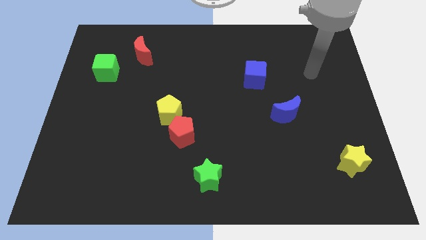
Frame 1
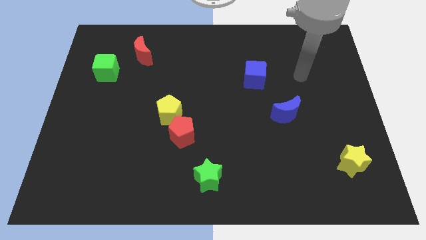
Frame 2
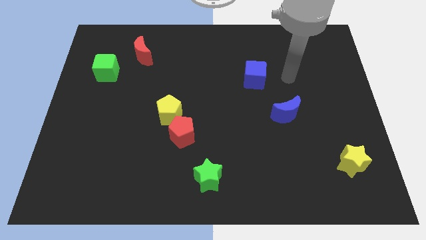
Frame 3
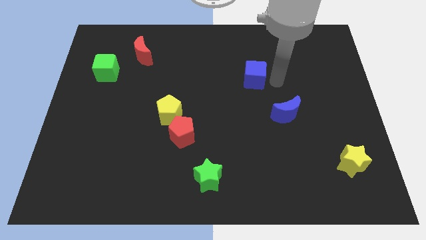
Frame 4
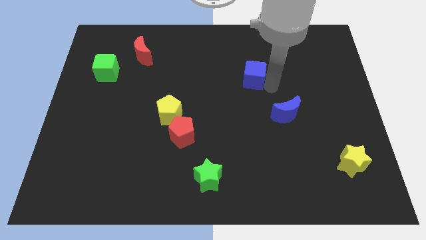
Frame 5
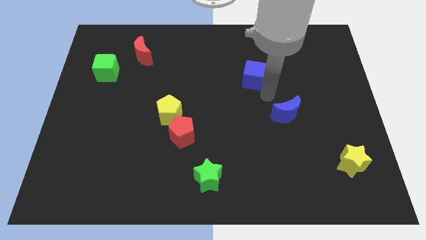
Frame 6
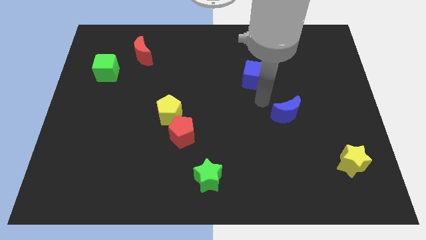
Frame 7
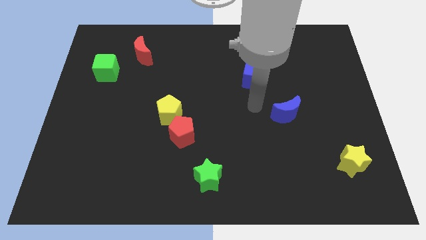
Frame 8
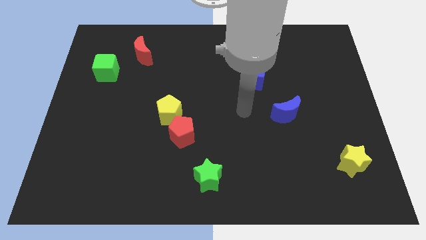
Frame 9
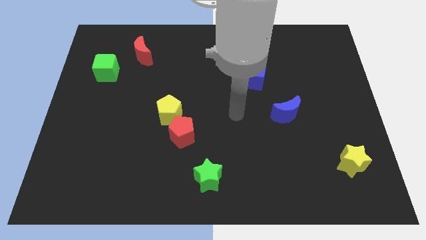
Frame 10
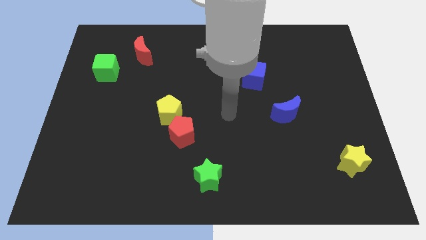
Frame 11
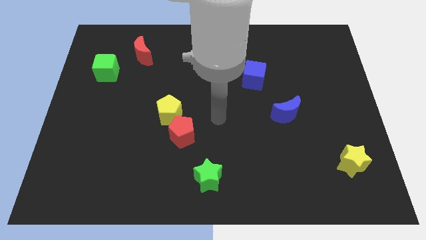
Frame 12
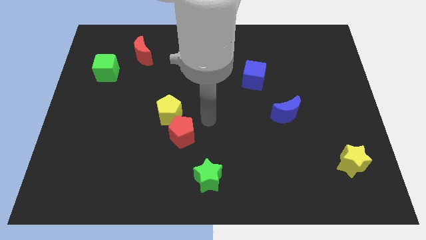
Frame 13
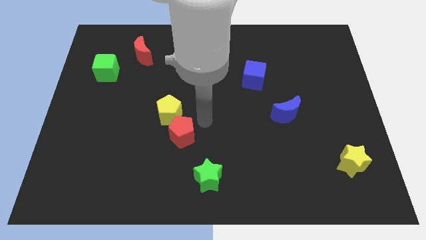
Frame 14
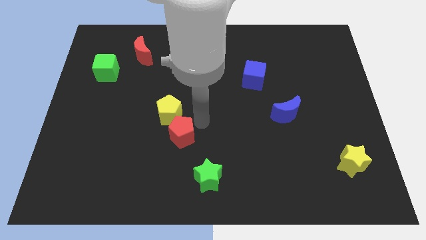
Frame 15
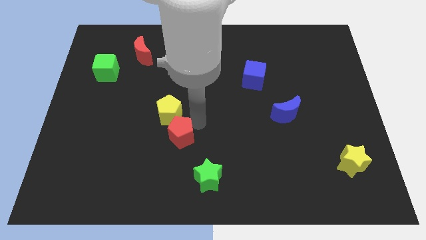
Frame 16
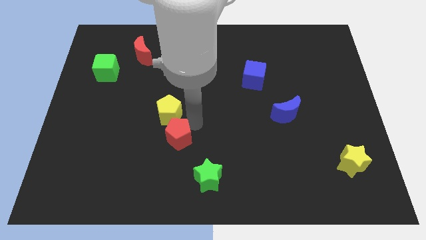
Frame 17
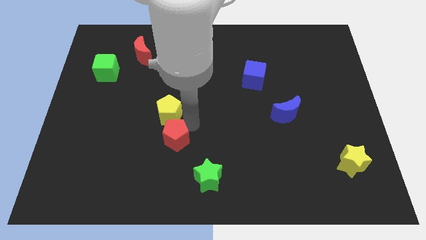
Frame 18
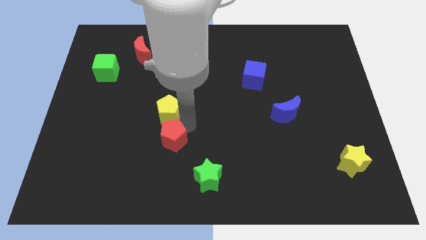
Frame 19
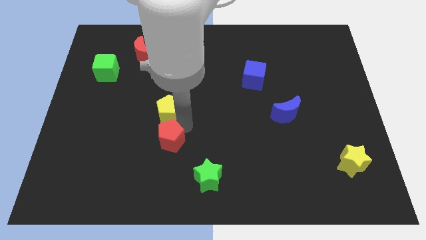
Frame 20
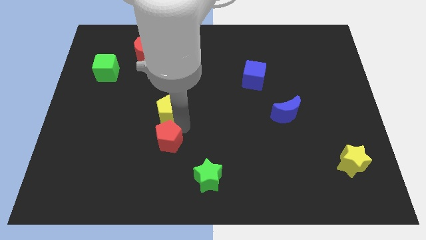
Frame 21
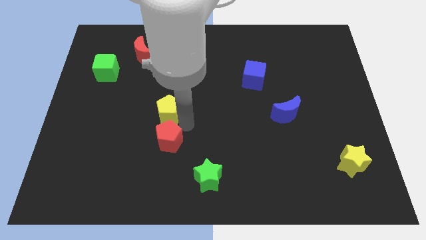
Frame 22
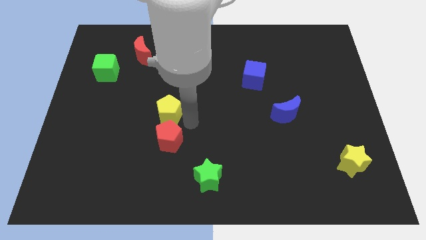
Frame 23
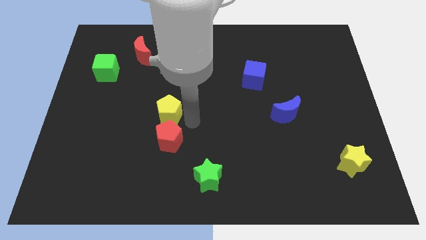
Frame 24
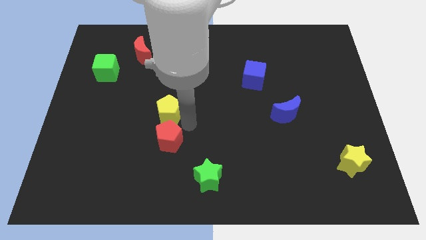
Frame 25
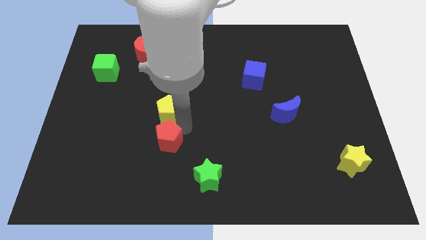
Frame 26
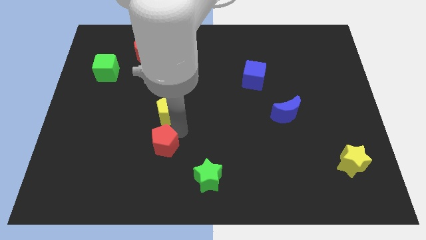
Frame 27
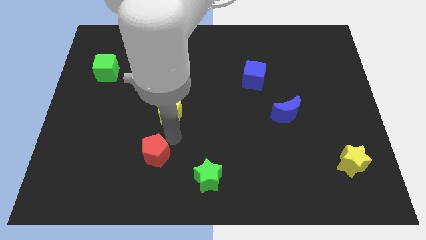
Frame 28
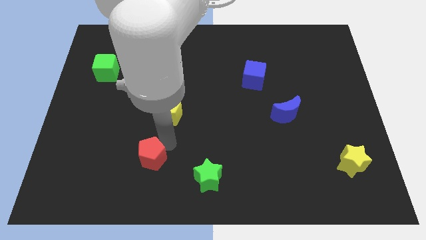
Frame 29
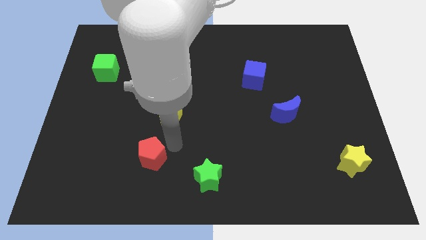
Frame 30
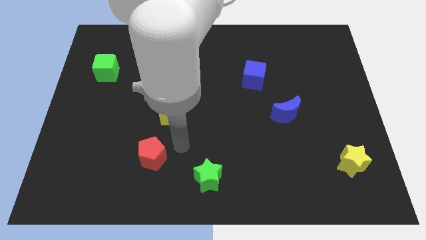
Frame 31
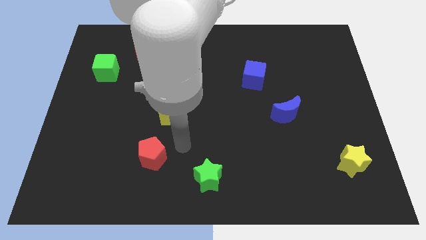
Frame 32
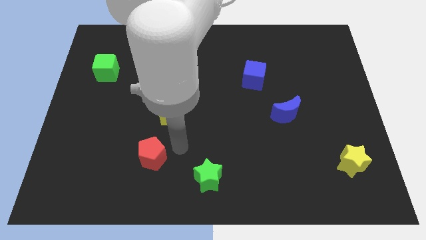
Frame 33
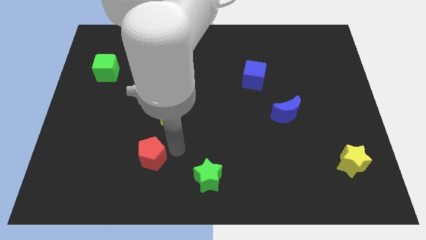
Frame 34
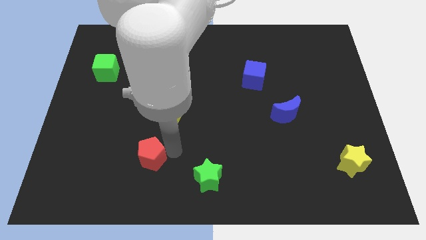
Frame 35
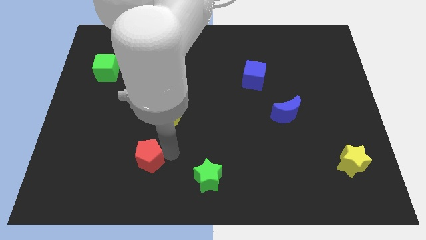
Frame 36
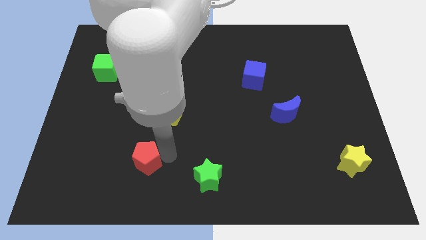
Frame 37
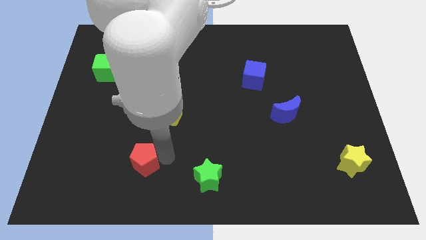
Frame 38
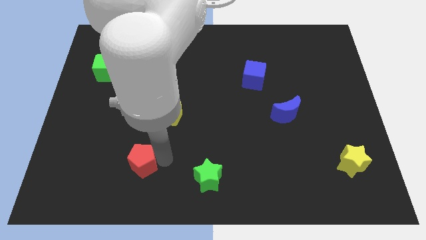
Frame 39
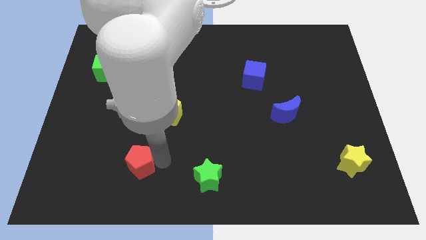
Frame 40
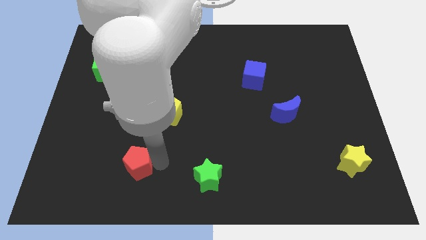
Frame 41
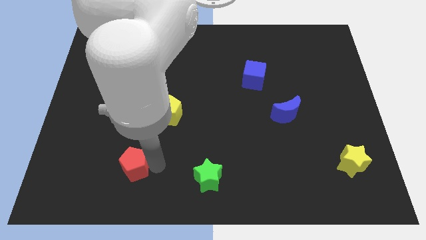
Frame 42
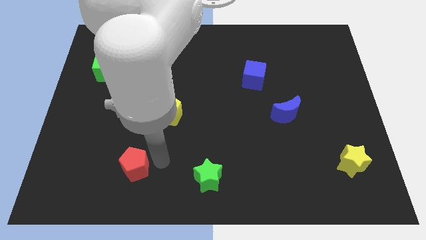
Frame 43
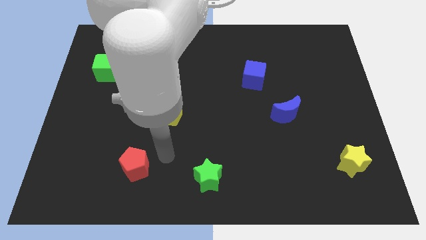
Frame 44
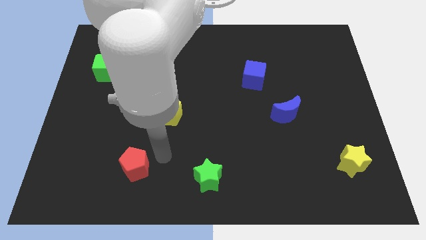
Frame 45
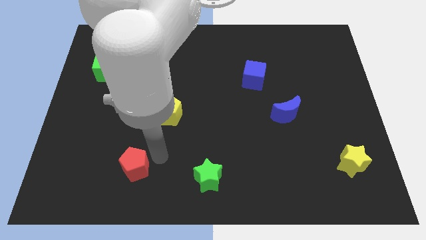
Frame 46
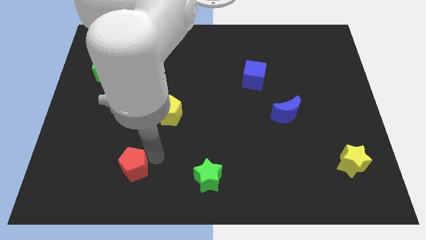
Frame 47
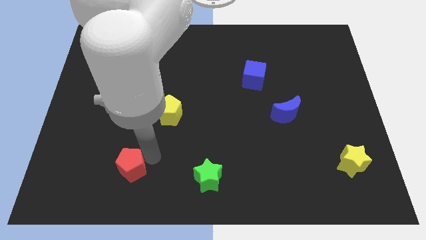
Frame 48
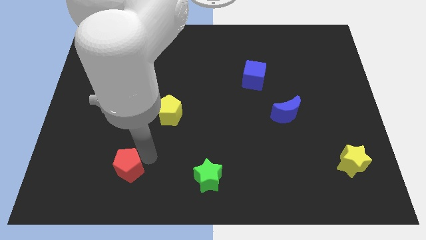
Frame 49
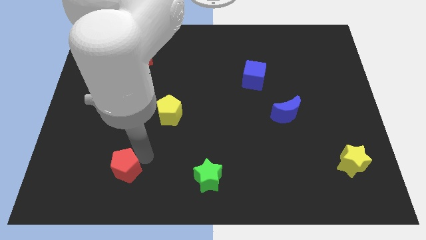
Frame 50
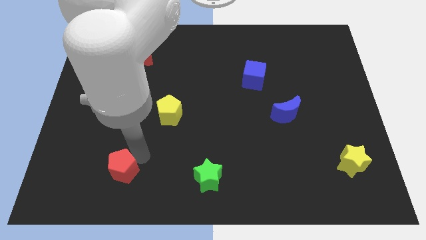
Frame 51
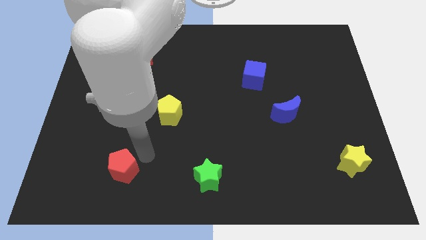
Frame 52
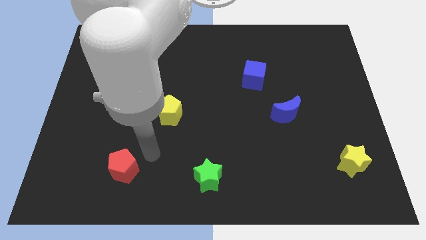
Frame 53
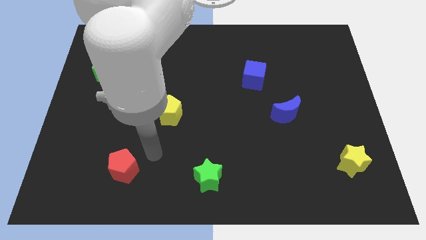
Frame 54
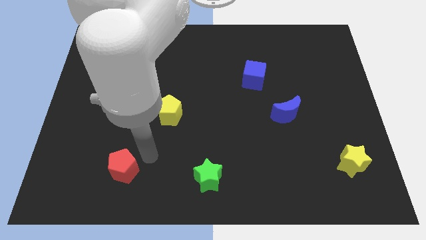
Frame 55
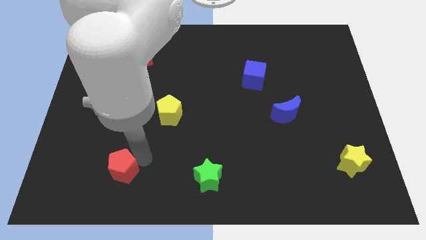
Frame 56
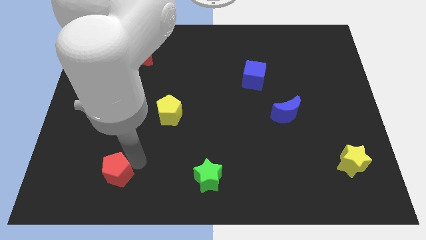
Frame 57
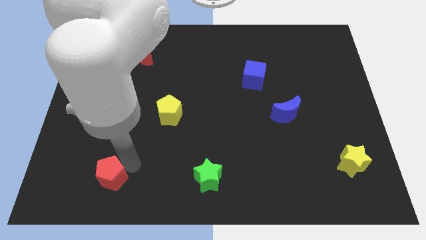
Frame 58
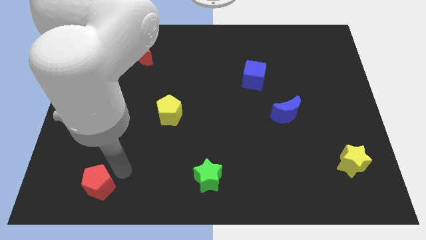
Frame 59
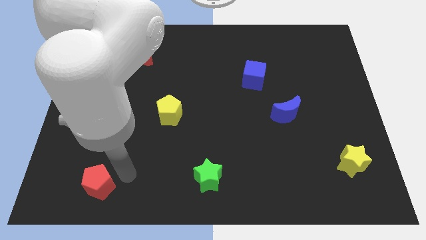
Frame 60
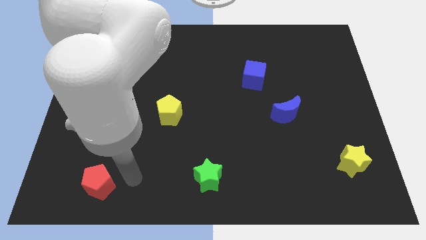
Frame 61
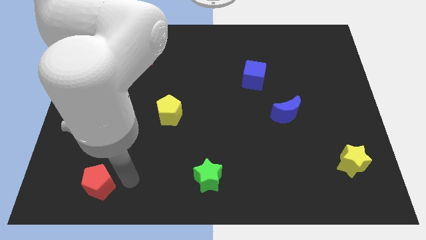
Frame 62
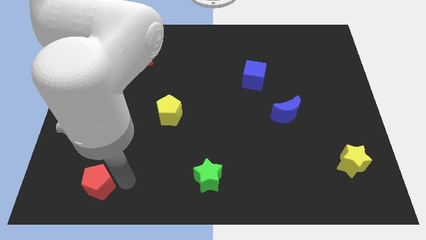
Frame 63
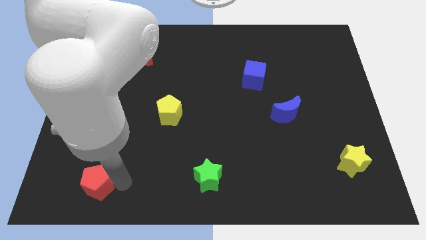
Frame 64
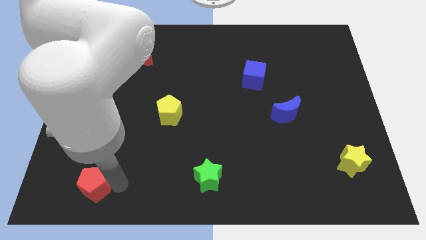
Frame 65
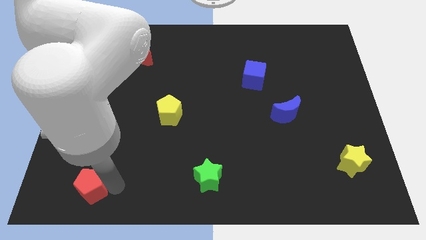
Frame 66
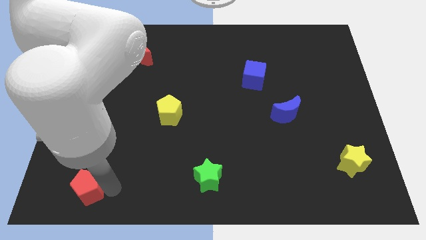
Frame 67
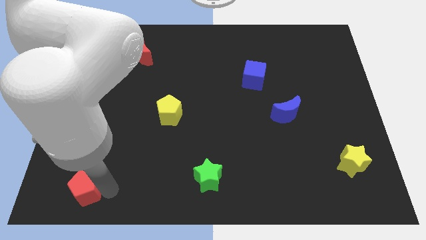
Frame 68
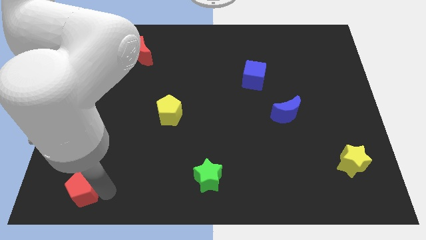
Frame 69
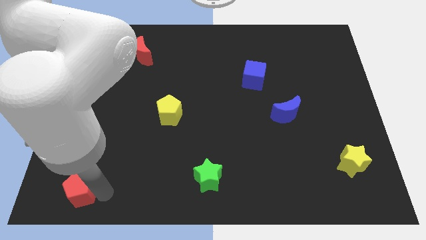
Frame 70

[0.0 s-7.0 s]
move the red pentagon to the bottom left of the board
